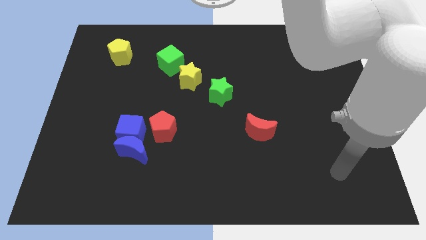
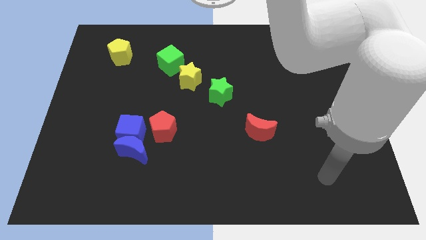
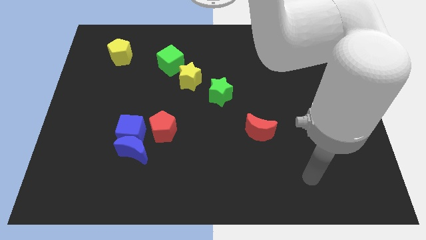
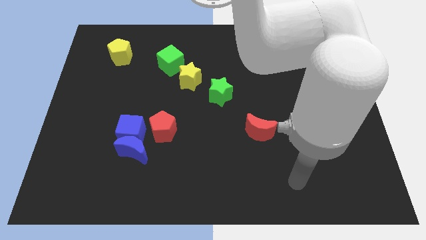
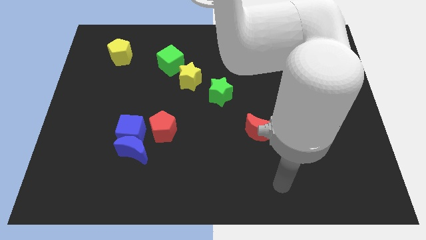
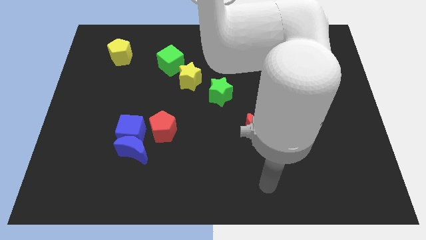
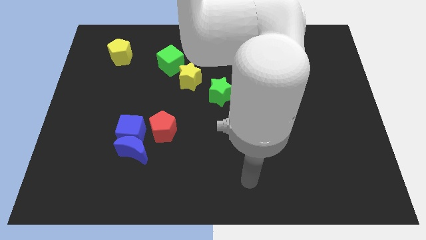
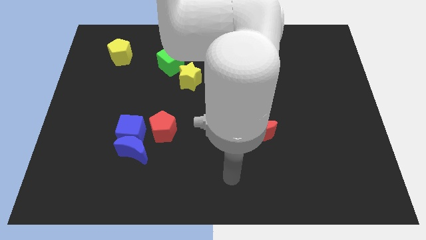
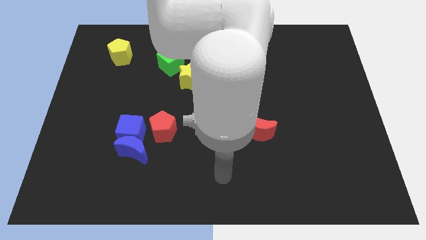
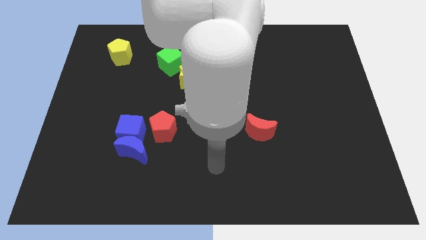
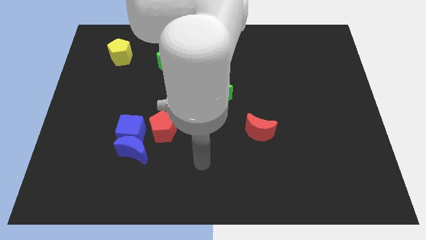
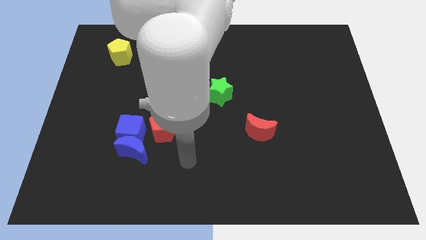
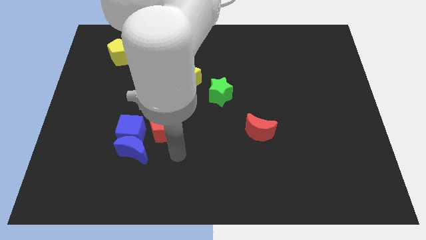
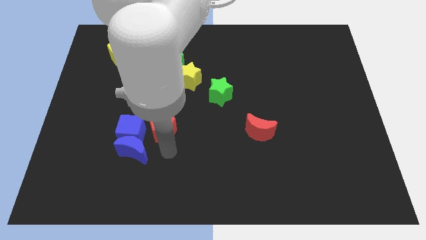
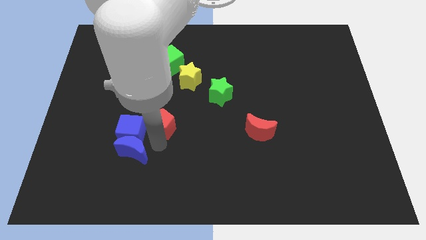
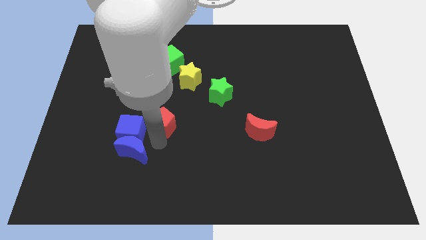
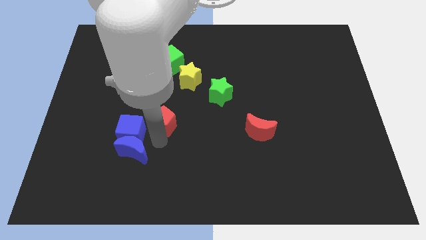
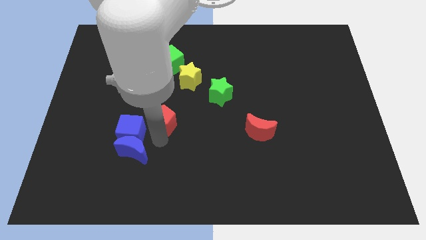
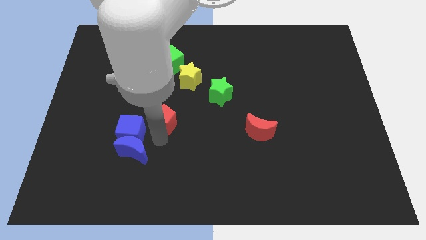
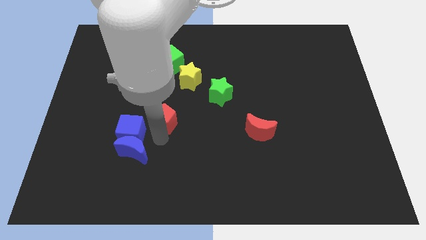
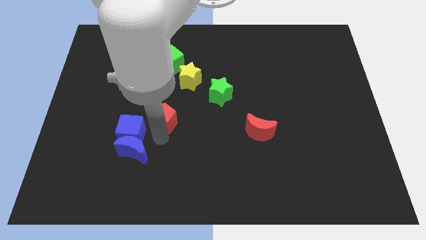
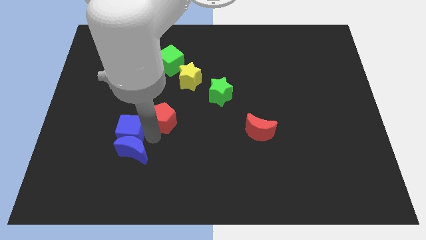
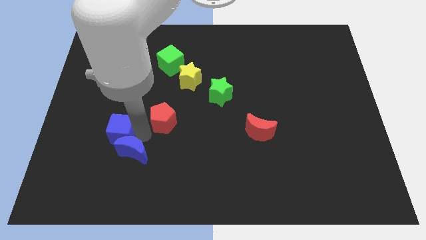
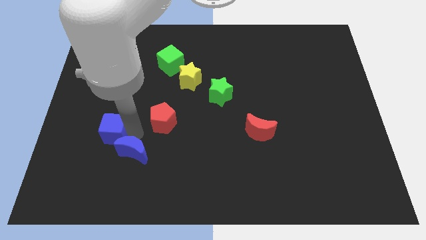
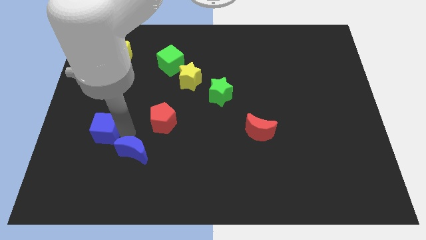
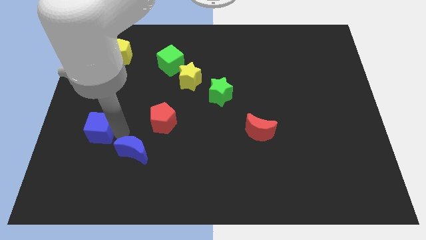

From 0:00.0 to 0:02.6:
pull the blue cube apart from the blue moon and red pentagon

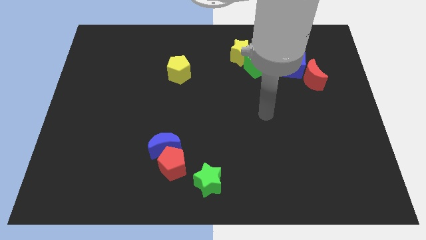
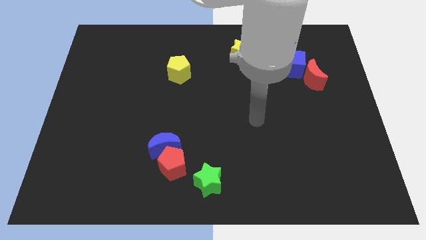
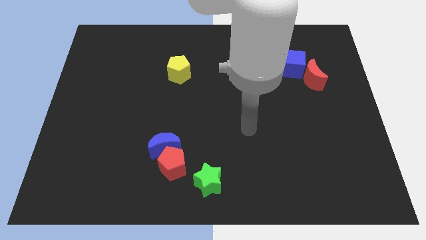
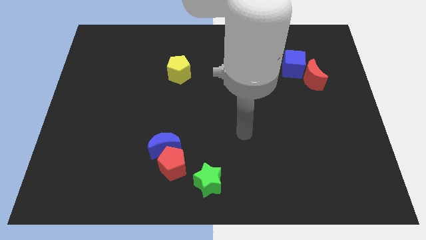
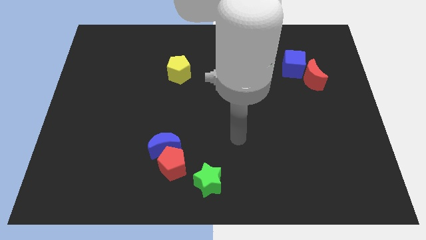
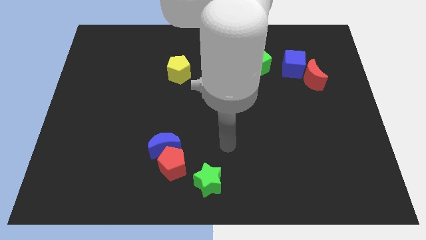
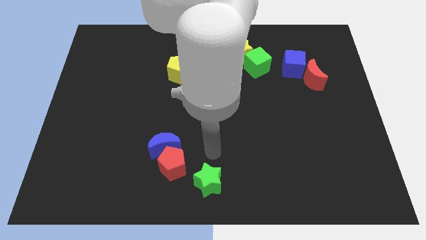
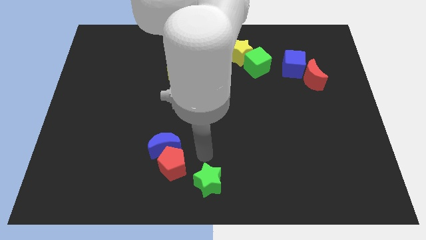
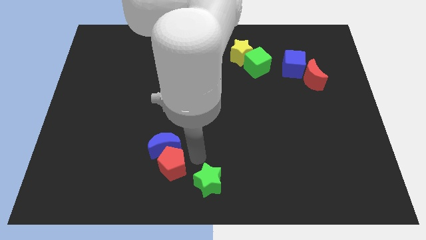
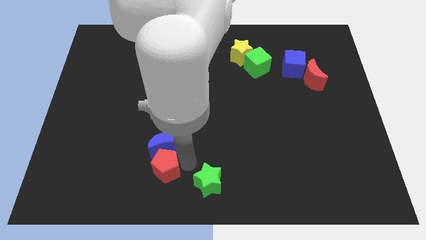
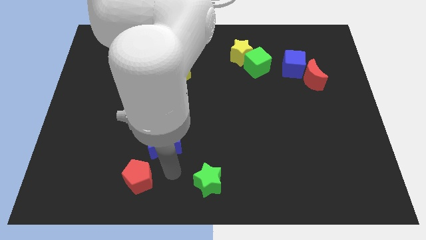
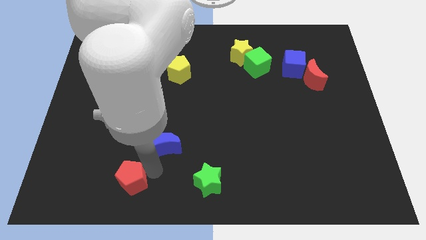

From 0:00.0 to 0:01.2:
pull the blue moon apart from the red pentagon

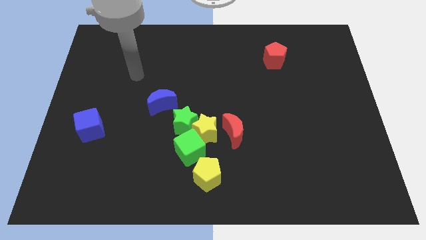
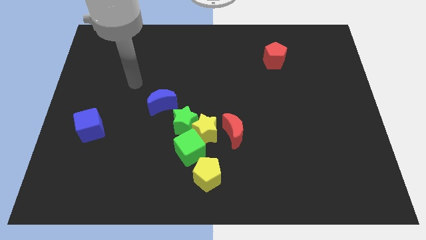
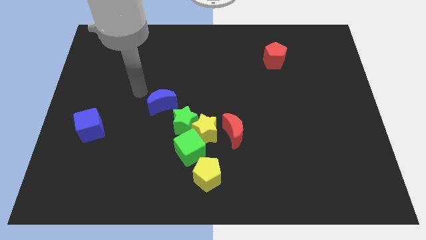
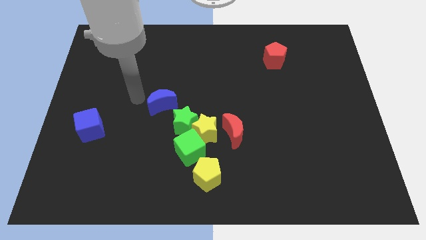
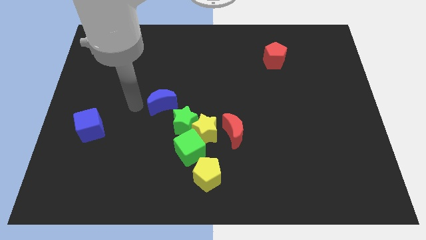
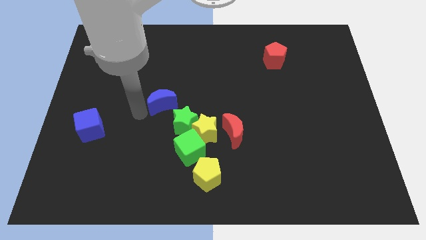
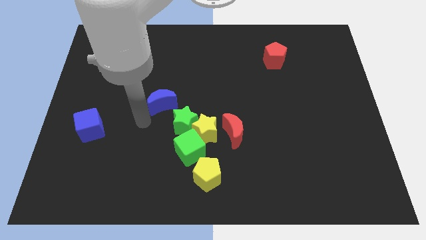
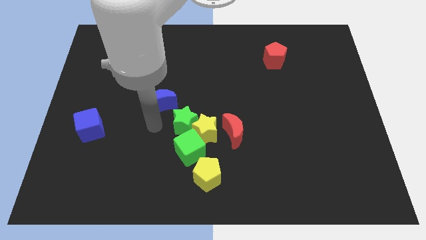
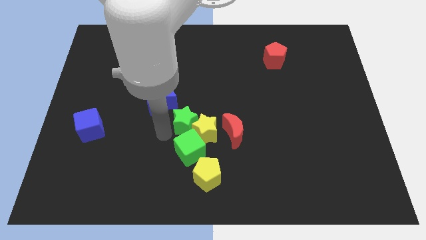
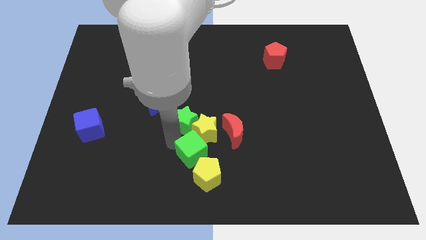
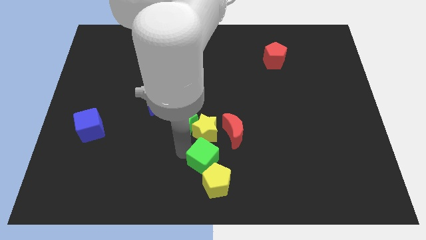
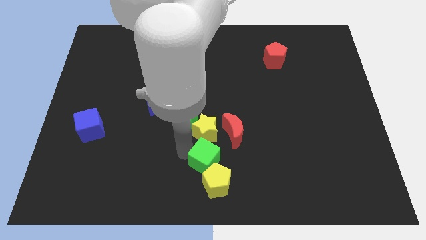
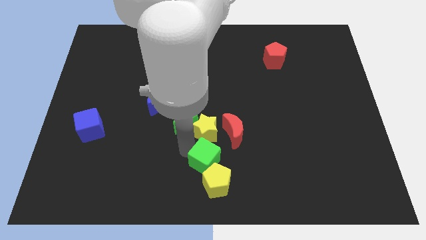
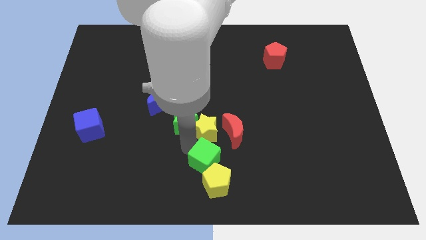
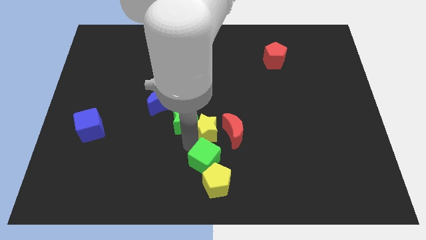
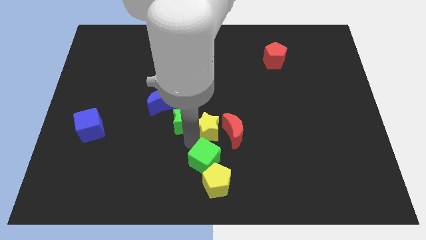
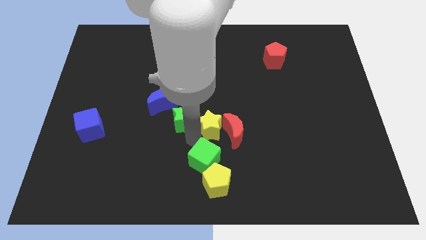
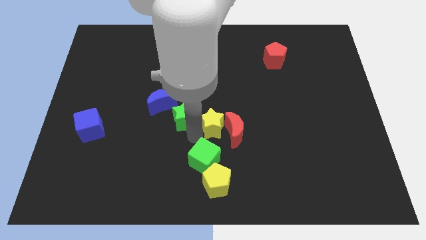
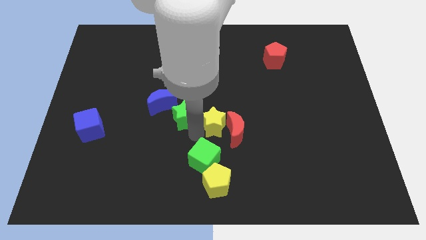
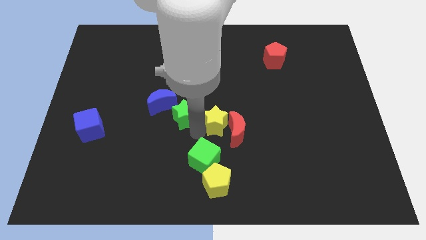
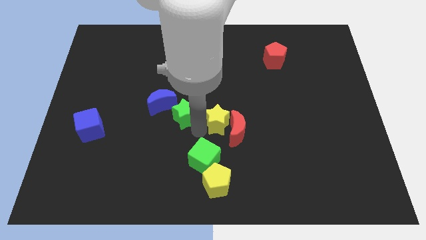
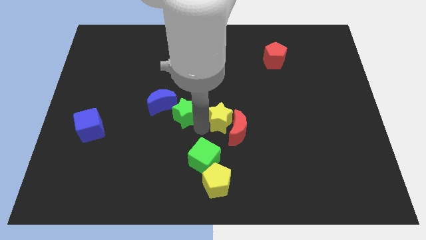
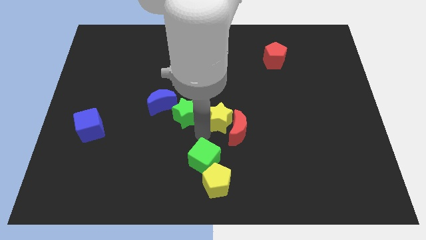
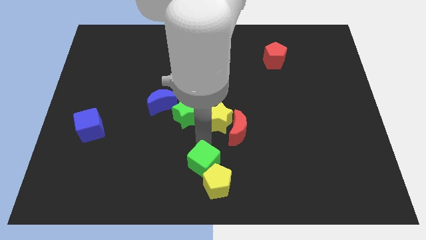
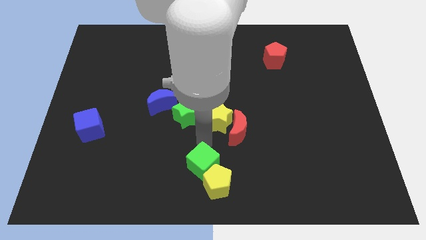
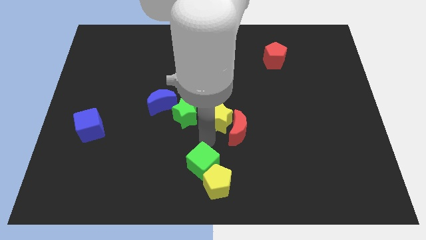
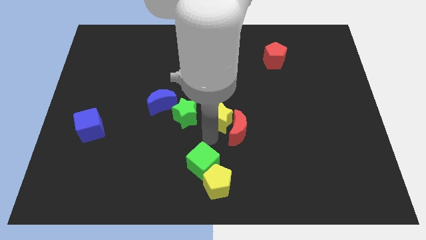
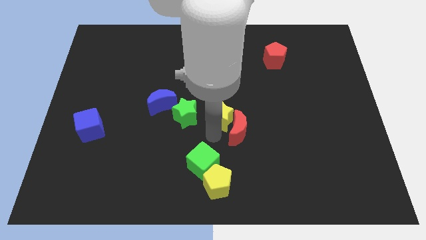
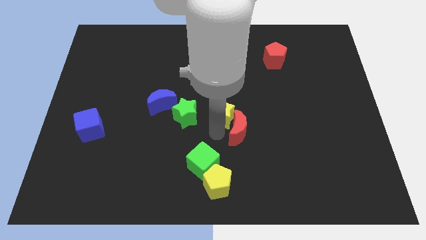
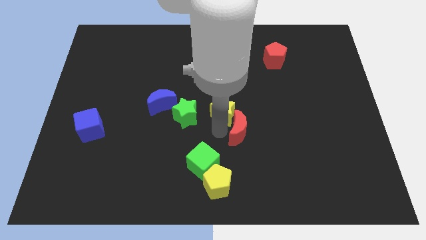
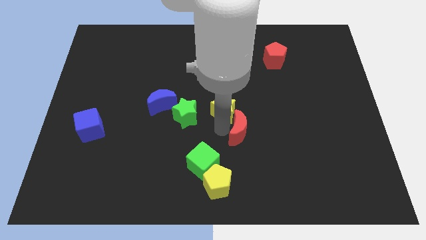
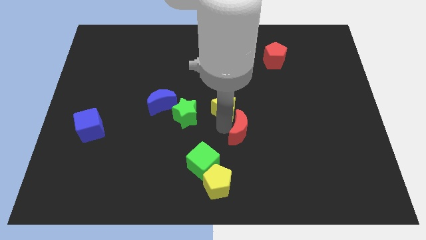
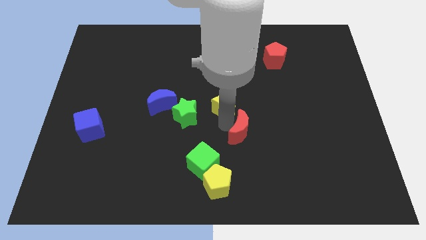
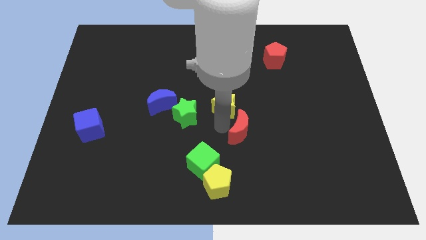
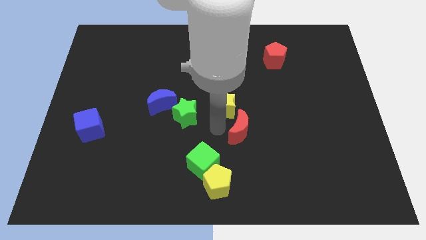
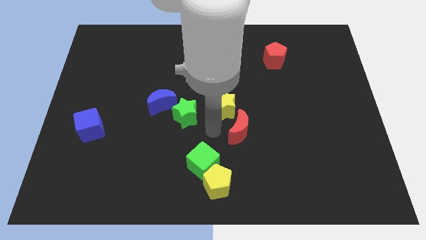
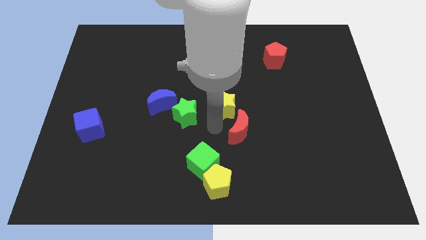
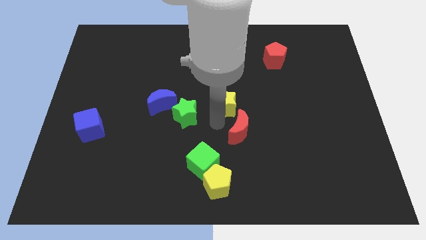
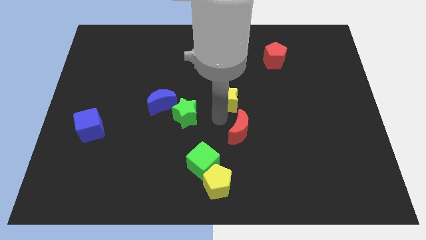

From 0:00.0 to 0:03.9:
separate the yellow star from the green star, green cube, and red moon

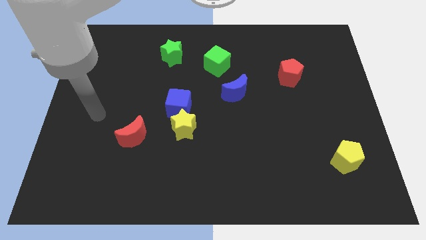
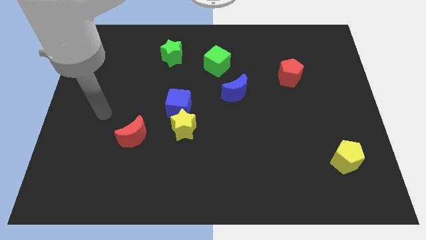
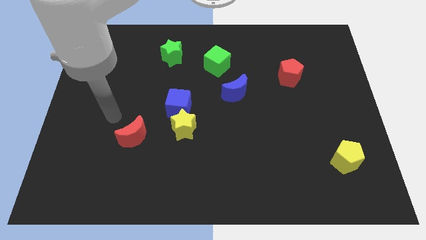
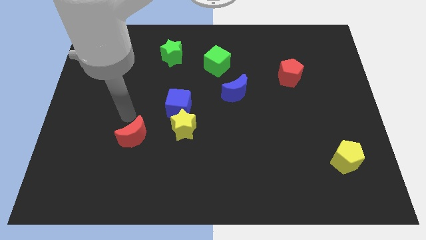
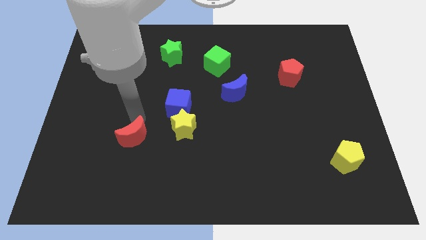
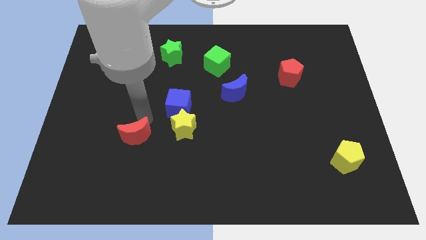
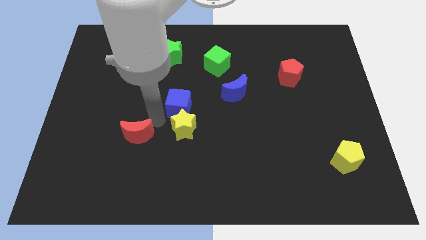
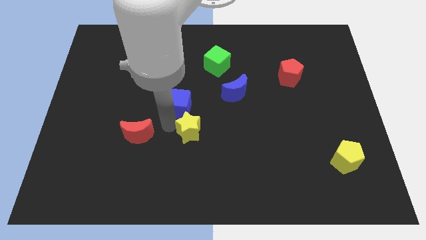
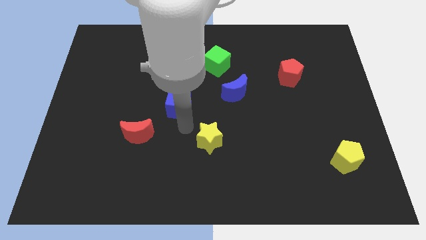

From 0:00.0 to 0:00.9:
move the blue cube away from the yellow star

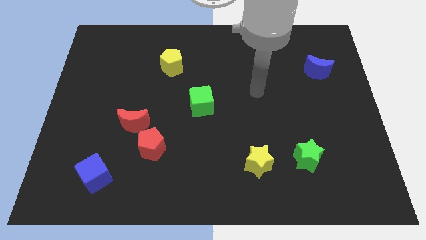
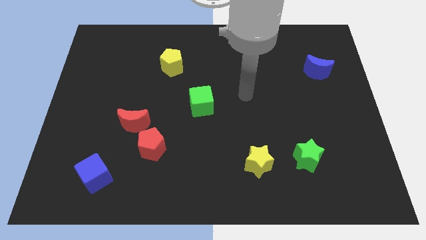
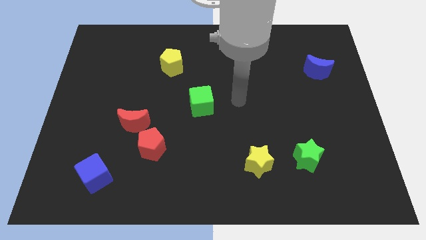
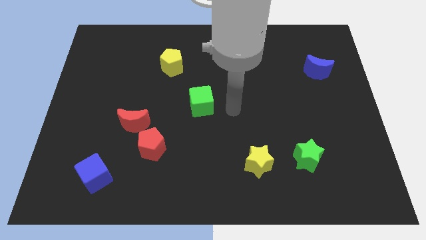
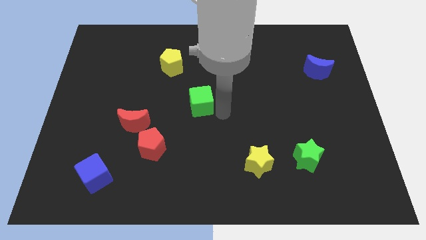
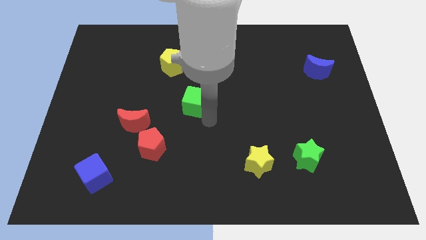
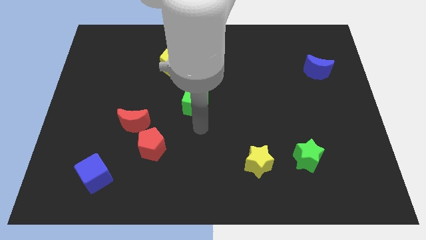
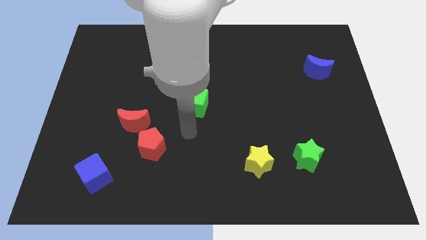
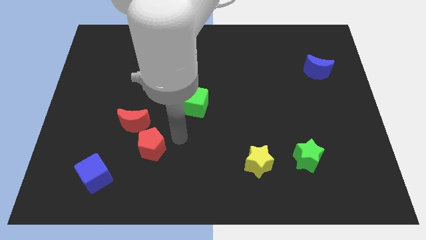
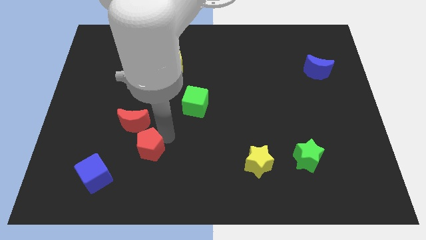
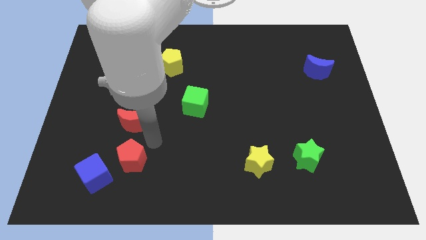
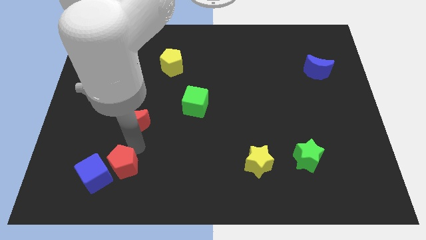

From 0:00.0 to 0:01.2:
move the red moon away from the red pentagon
